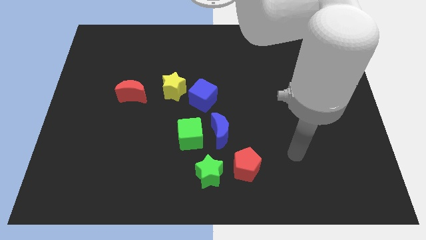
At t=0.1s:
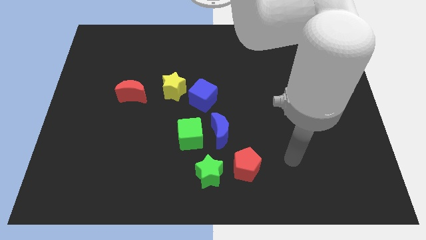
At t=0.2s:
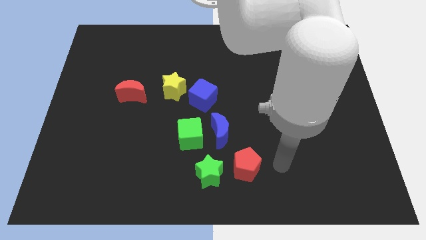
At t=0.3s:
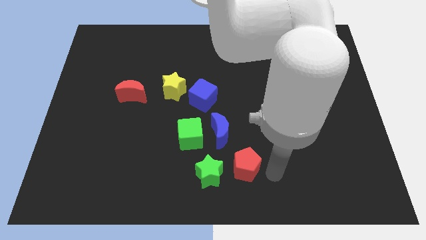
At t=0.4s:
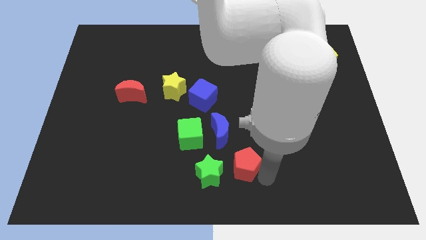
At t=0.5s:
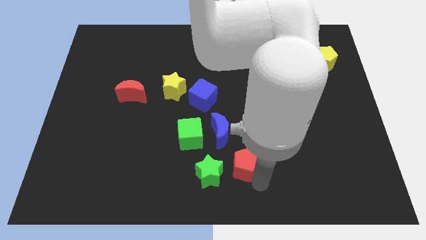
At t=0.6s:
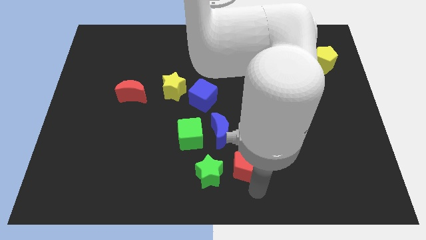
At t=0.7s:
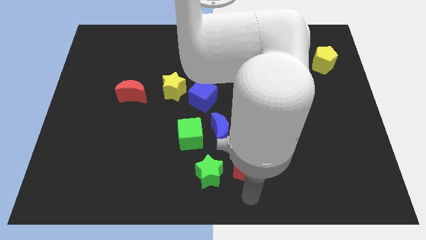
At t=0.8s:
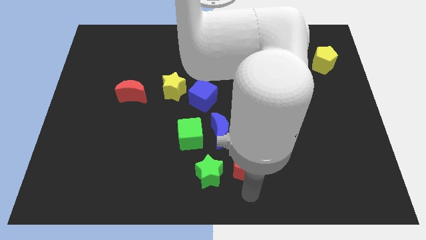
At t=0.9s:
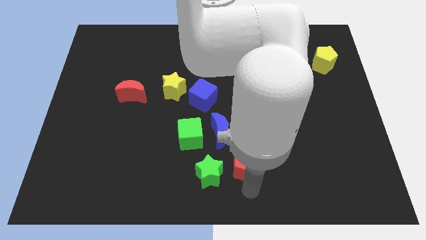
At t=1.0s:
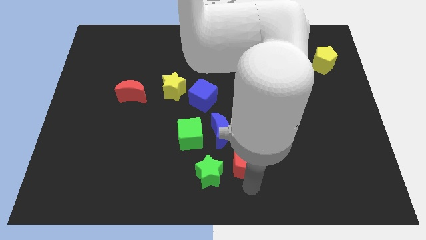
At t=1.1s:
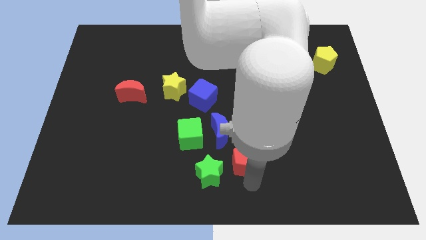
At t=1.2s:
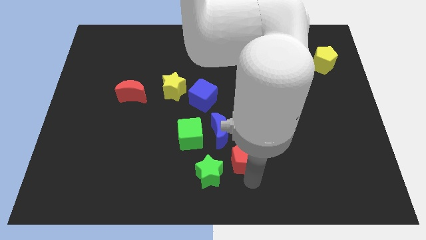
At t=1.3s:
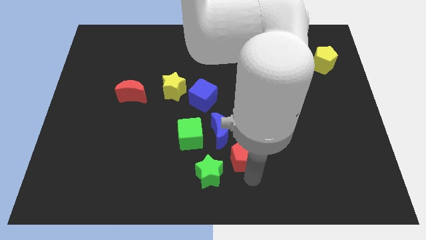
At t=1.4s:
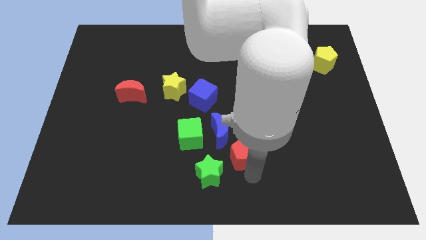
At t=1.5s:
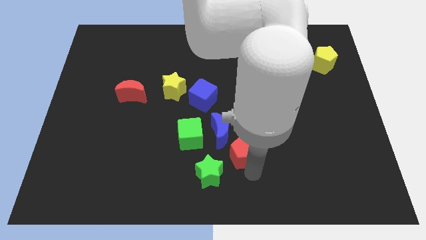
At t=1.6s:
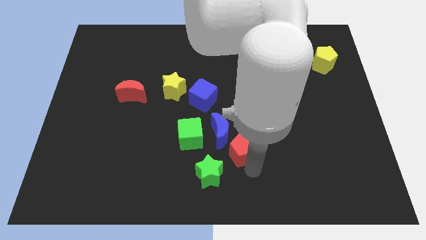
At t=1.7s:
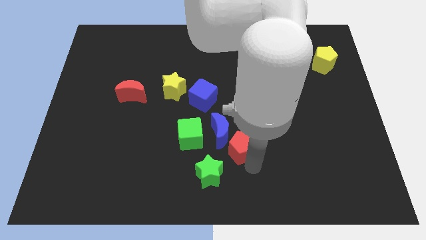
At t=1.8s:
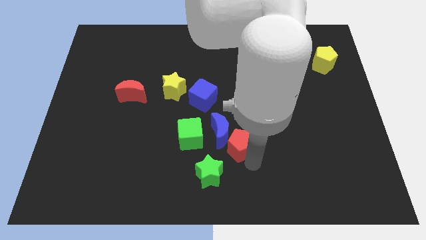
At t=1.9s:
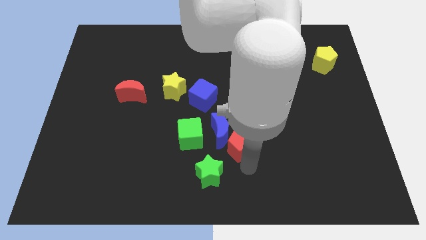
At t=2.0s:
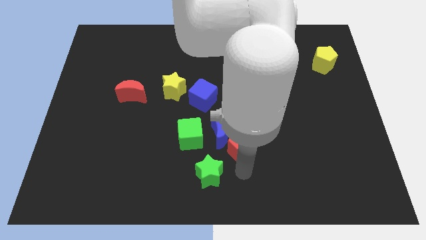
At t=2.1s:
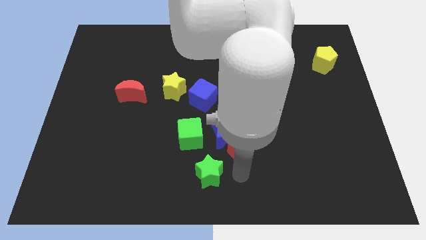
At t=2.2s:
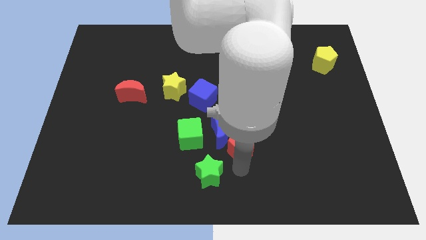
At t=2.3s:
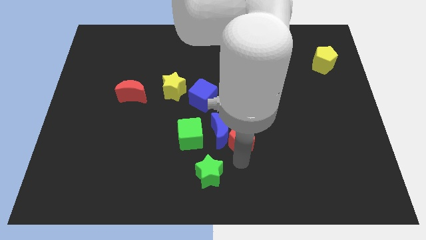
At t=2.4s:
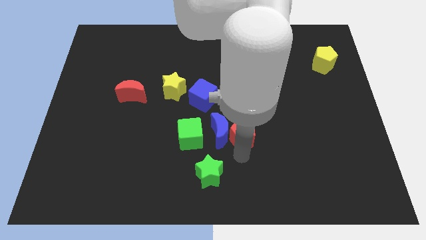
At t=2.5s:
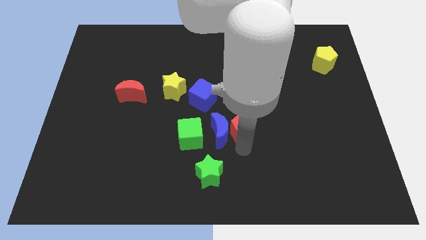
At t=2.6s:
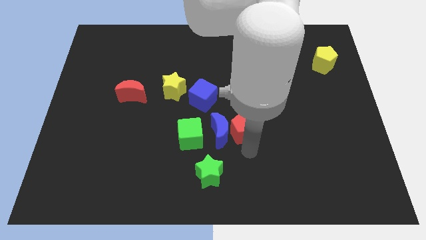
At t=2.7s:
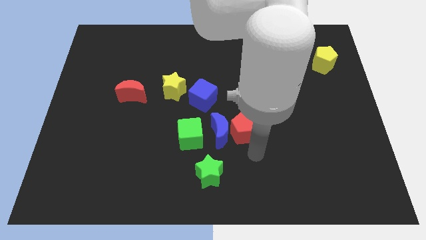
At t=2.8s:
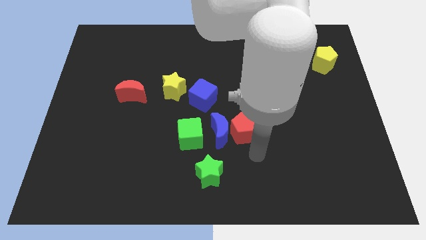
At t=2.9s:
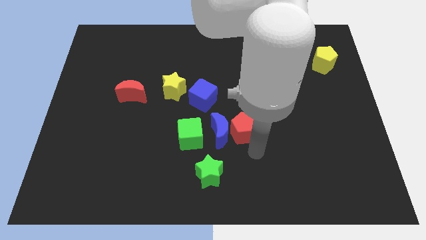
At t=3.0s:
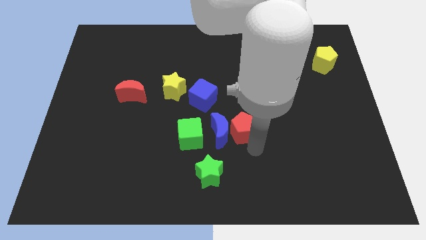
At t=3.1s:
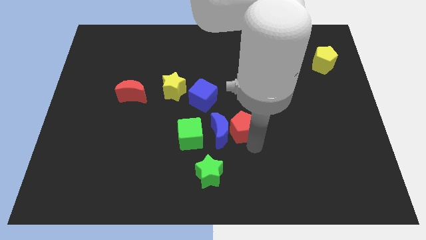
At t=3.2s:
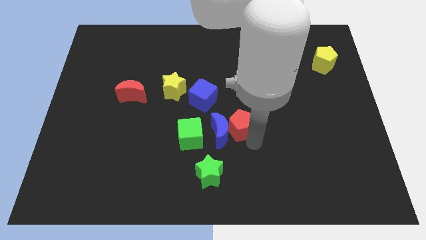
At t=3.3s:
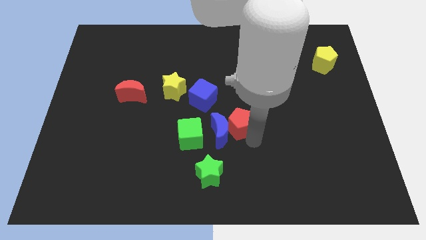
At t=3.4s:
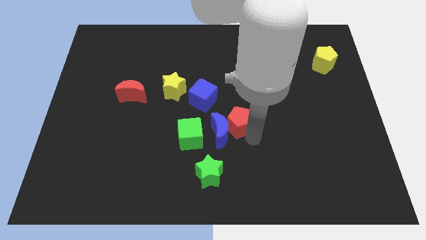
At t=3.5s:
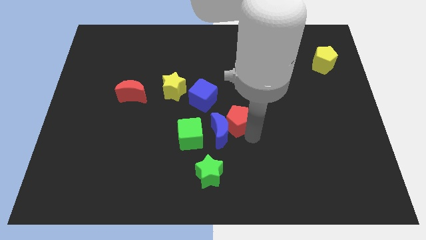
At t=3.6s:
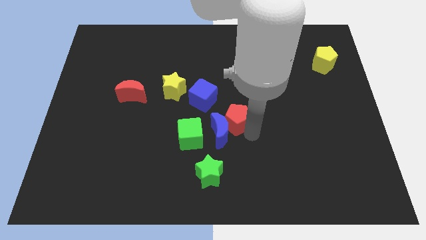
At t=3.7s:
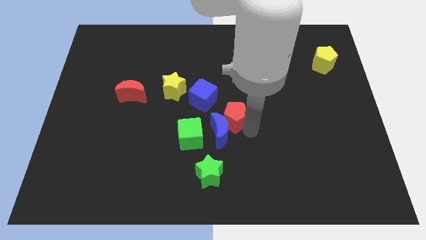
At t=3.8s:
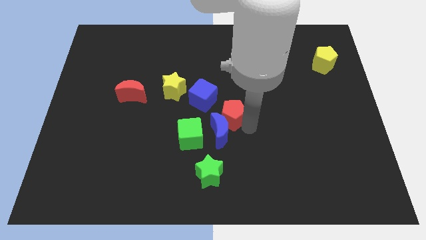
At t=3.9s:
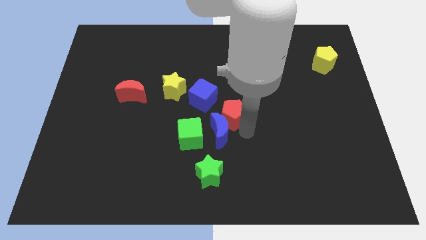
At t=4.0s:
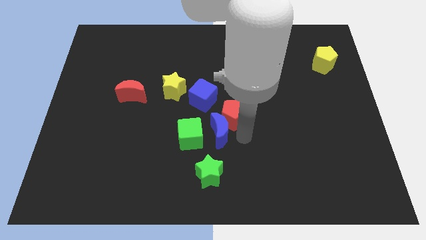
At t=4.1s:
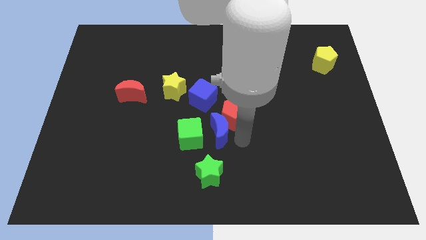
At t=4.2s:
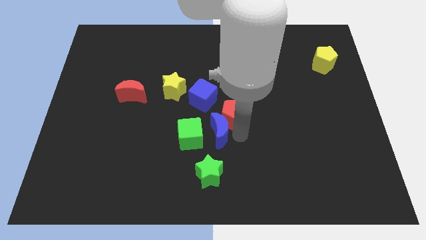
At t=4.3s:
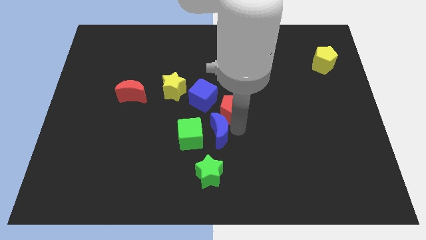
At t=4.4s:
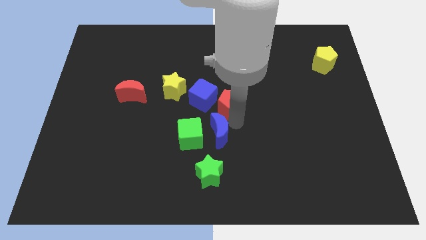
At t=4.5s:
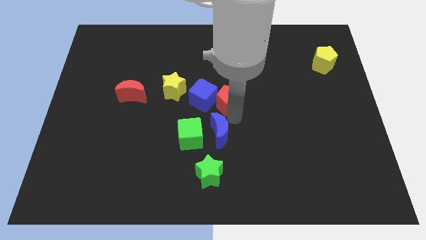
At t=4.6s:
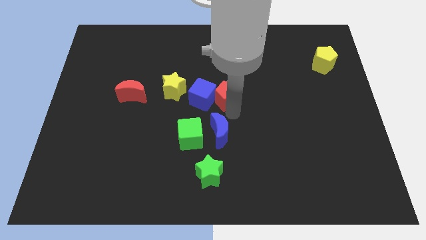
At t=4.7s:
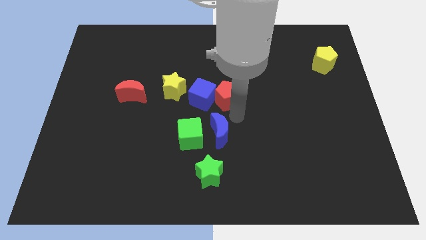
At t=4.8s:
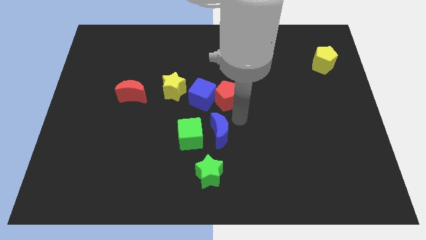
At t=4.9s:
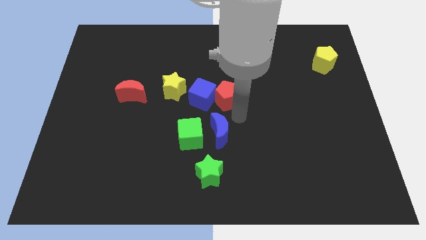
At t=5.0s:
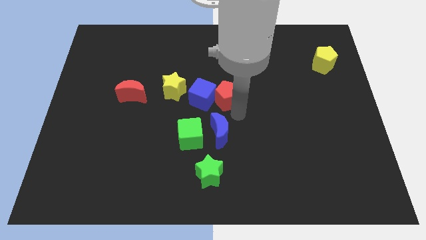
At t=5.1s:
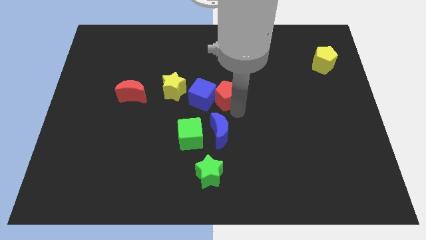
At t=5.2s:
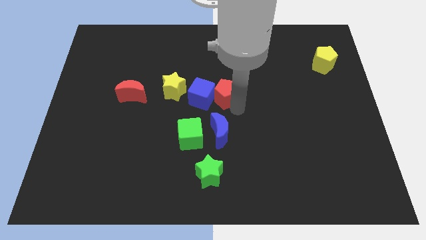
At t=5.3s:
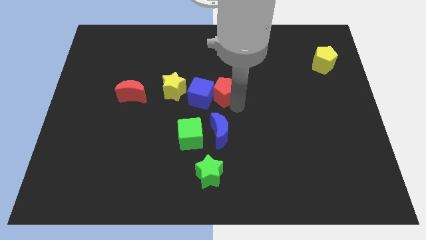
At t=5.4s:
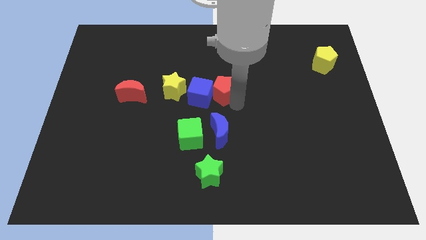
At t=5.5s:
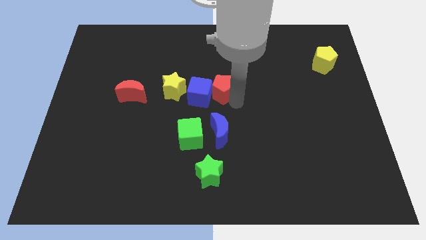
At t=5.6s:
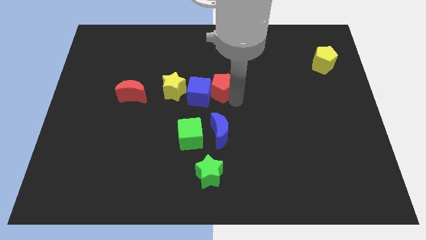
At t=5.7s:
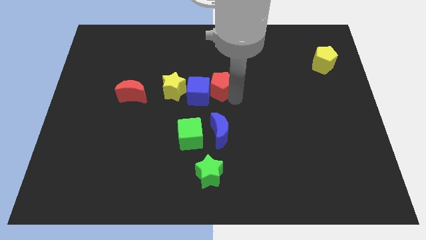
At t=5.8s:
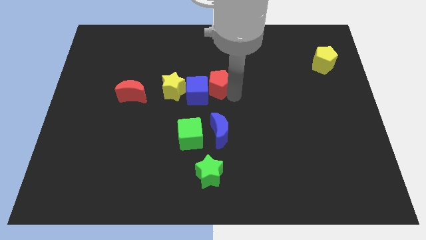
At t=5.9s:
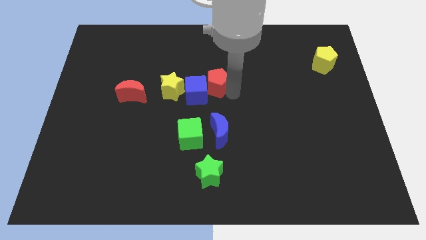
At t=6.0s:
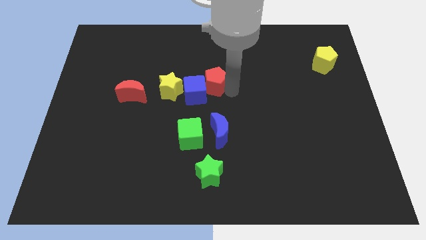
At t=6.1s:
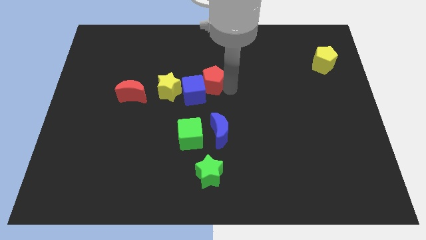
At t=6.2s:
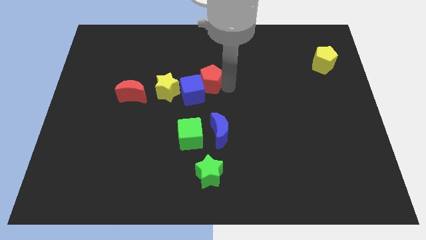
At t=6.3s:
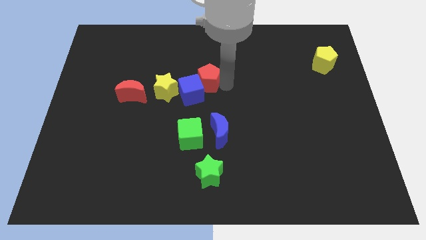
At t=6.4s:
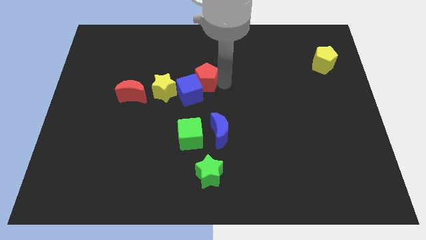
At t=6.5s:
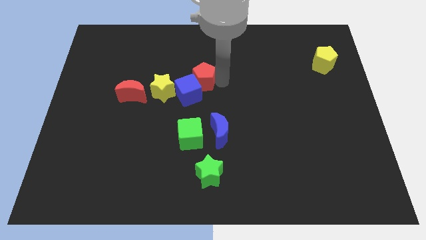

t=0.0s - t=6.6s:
put the red pentagon diagonally up and to the right of the yellow star
